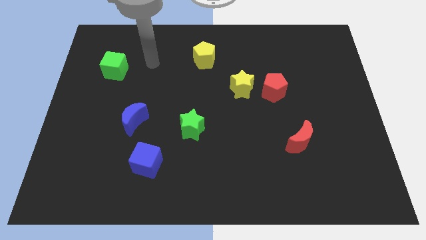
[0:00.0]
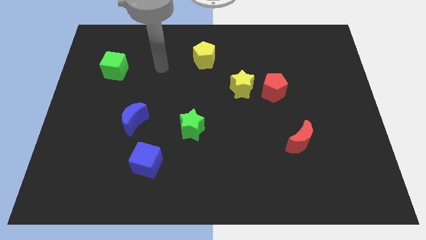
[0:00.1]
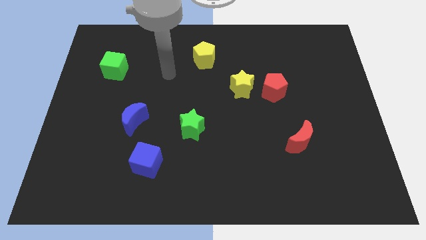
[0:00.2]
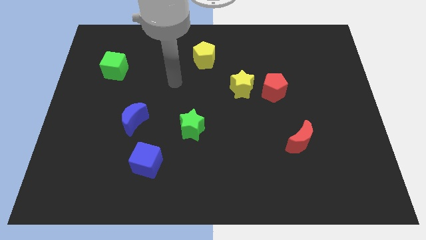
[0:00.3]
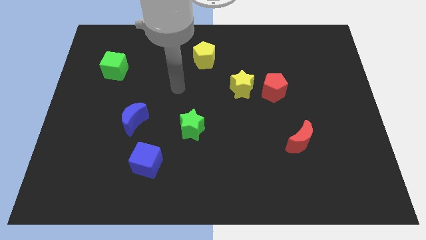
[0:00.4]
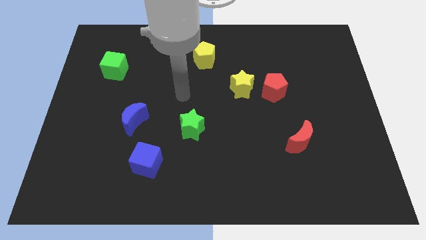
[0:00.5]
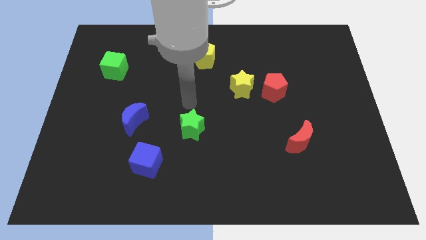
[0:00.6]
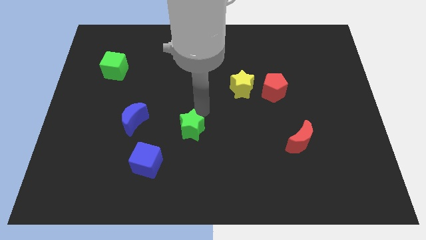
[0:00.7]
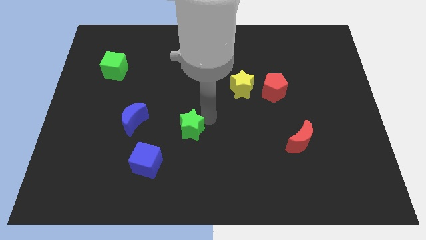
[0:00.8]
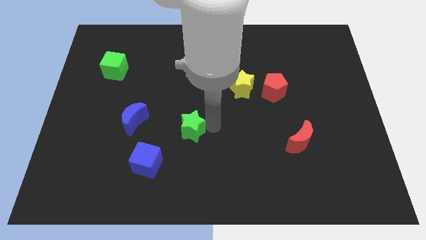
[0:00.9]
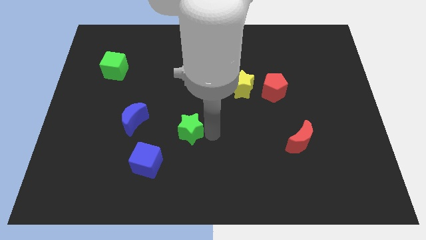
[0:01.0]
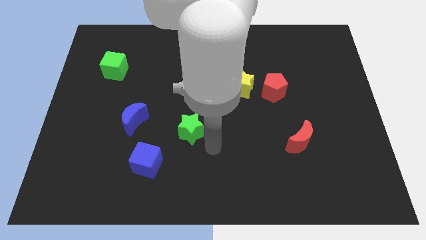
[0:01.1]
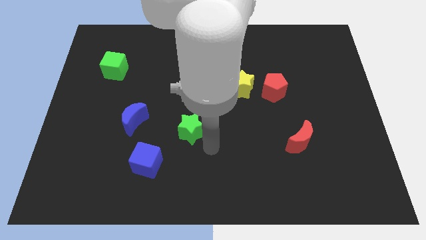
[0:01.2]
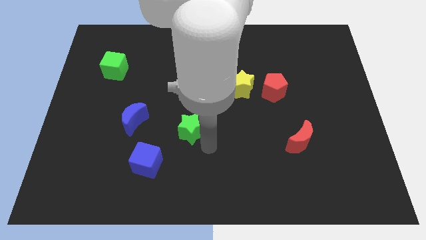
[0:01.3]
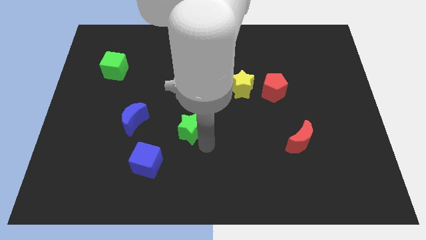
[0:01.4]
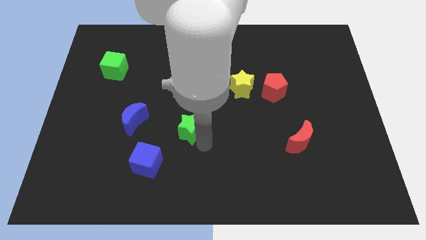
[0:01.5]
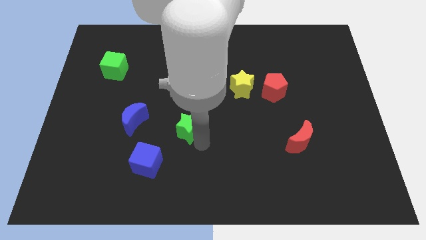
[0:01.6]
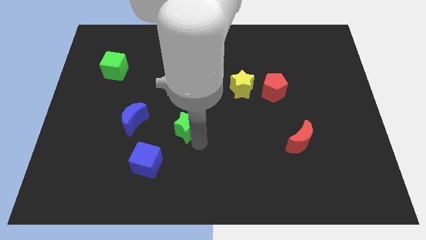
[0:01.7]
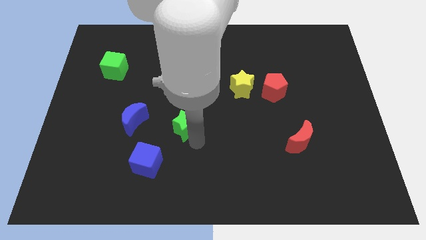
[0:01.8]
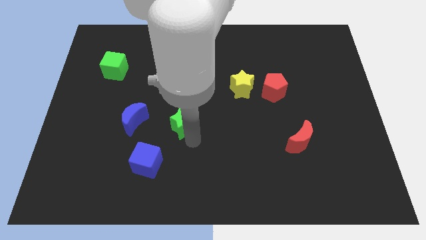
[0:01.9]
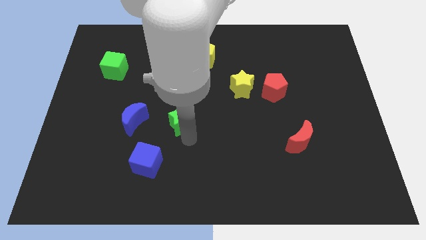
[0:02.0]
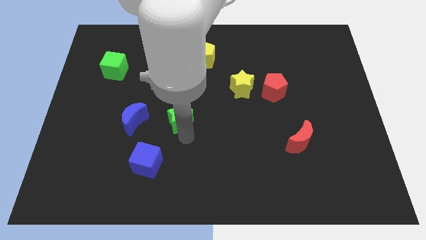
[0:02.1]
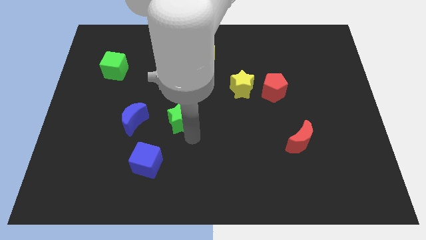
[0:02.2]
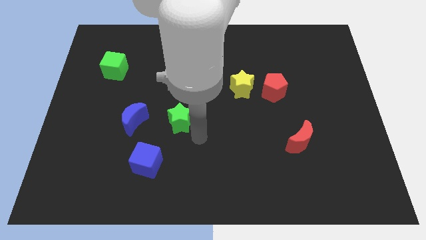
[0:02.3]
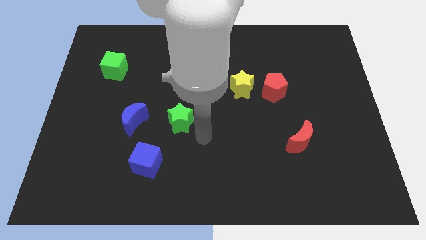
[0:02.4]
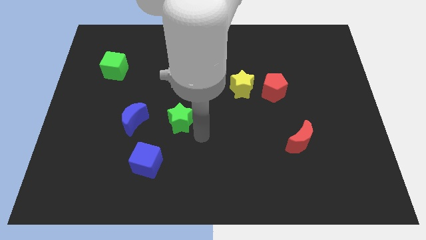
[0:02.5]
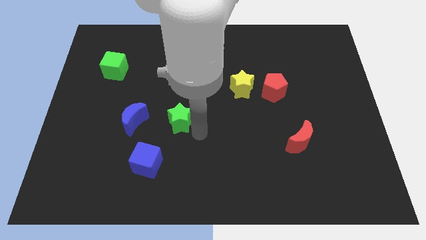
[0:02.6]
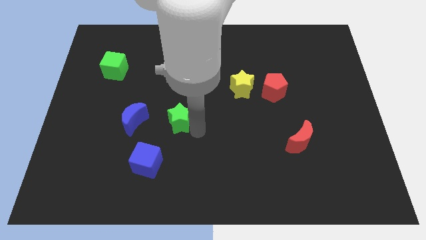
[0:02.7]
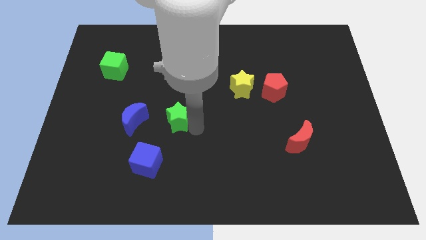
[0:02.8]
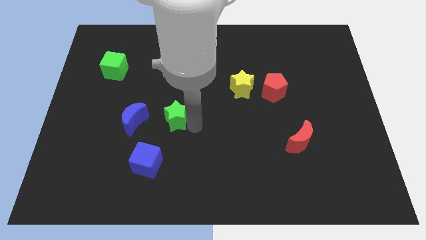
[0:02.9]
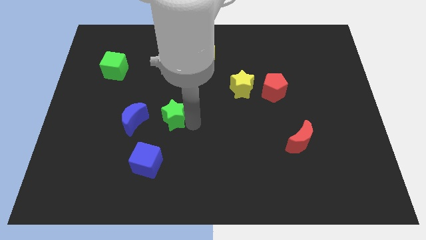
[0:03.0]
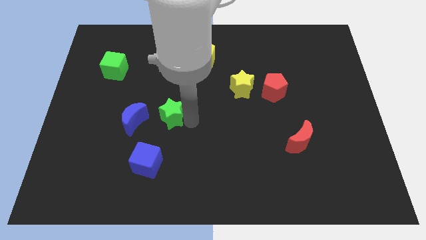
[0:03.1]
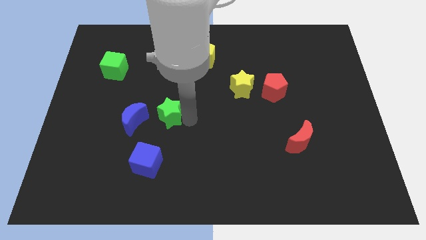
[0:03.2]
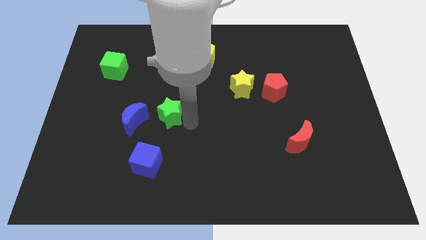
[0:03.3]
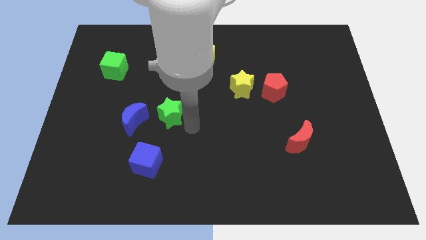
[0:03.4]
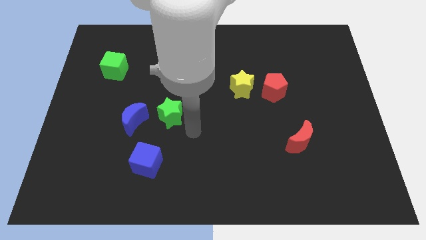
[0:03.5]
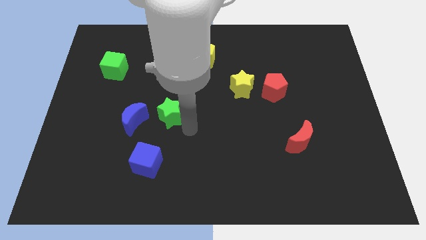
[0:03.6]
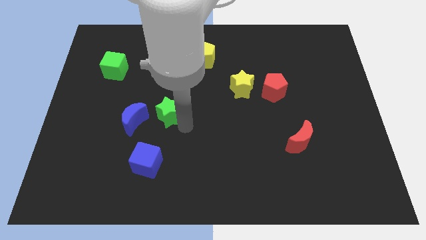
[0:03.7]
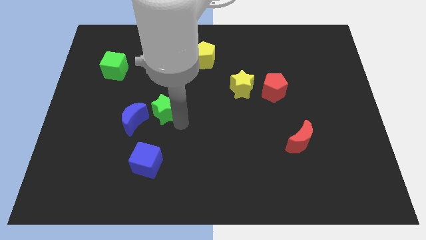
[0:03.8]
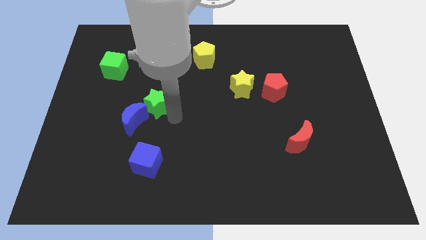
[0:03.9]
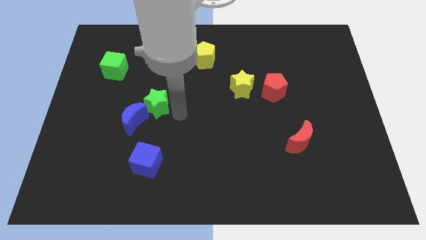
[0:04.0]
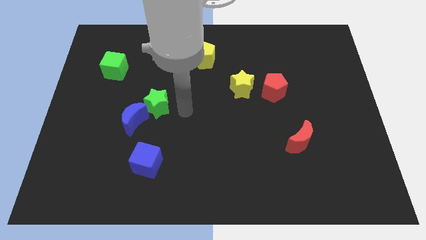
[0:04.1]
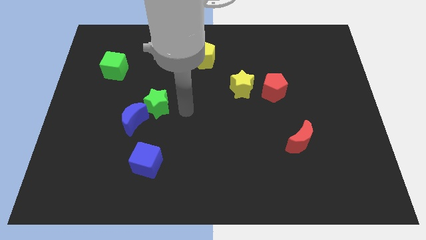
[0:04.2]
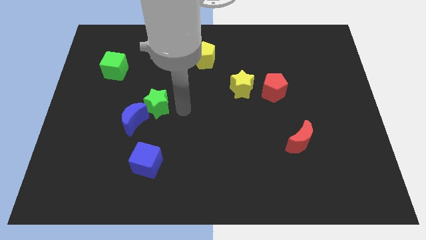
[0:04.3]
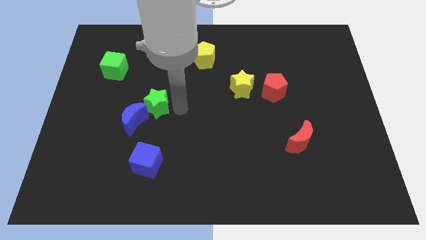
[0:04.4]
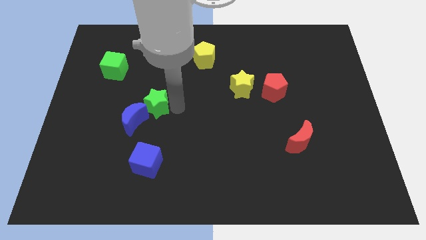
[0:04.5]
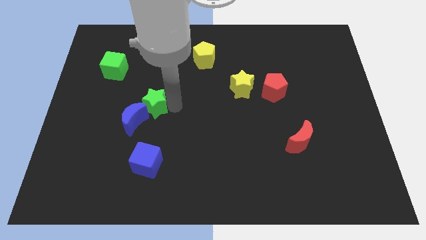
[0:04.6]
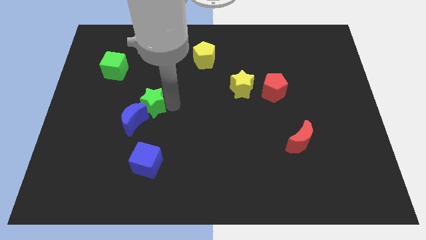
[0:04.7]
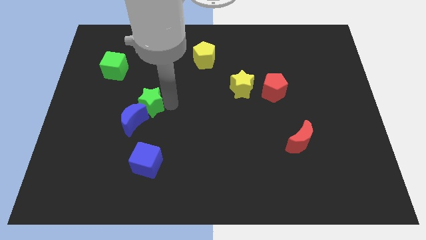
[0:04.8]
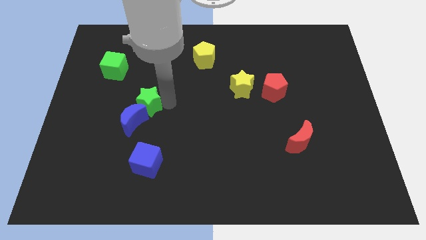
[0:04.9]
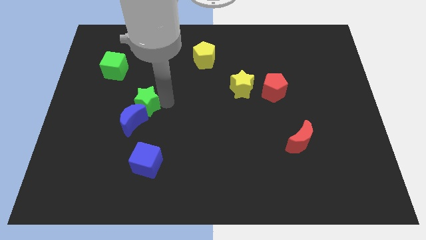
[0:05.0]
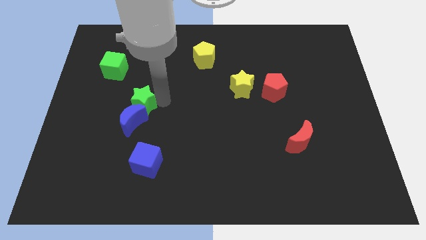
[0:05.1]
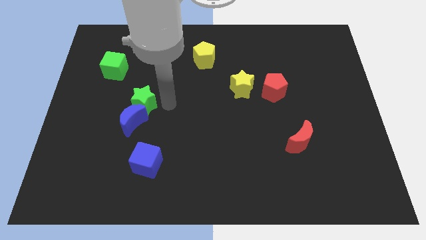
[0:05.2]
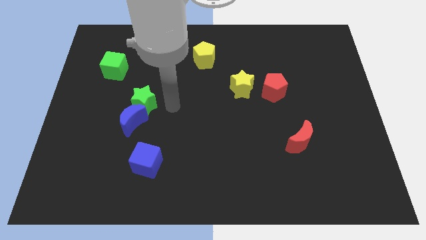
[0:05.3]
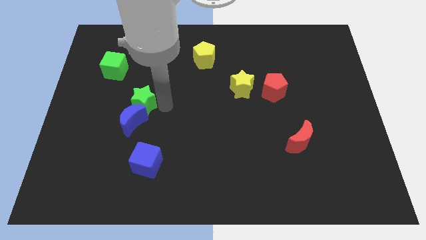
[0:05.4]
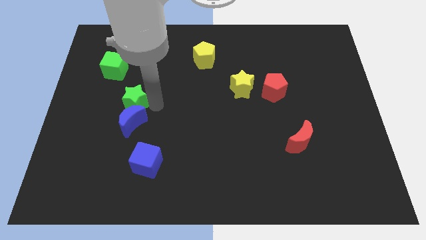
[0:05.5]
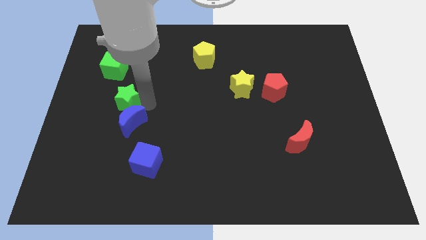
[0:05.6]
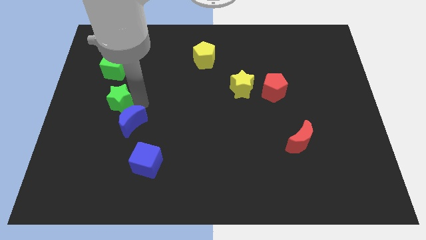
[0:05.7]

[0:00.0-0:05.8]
slide the green star to the bottom side of the green cube

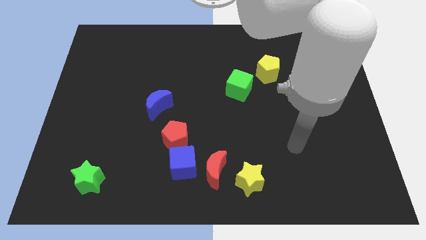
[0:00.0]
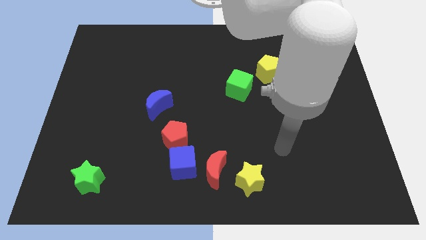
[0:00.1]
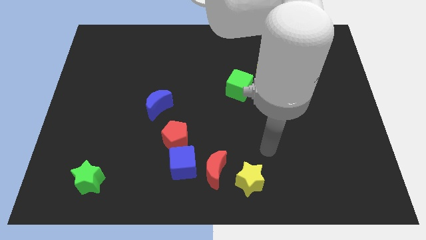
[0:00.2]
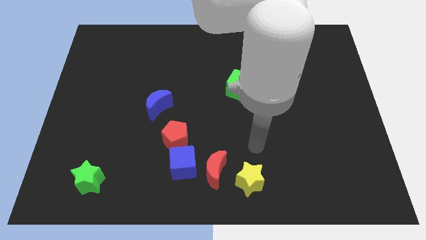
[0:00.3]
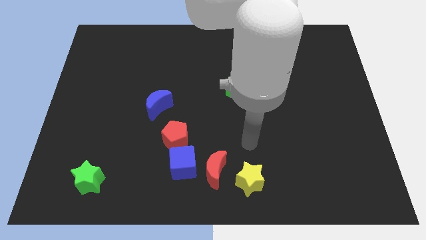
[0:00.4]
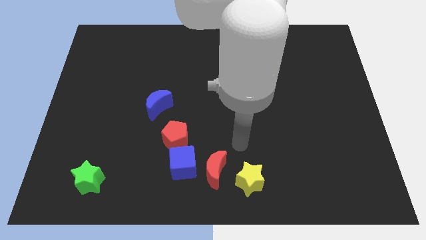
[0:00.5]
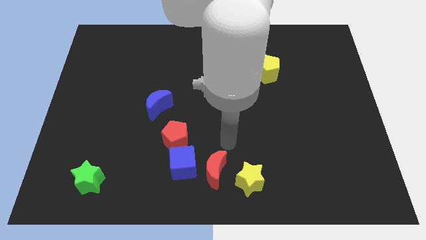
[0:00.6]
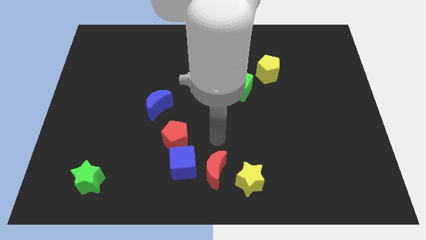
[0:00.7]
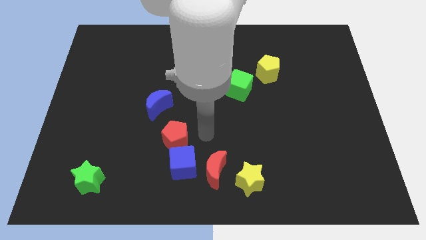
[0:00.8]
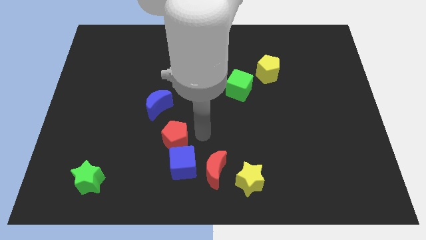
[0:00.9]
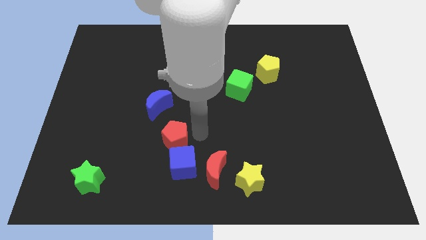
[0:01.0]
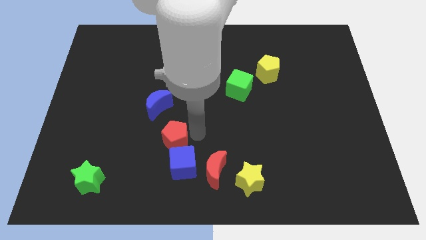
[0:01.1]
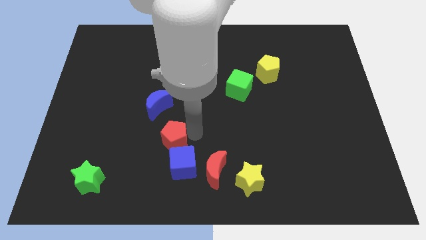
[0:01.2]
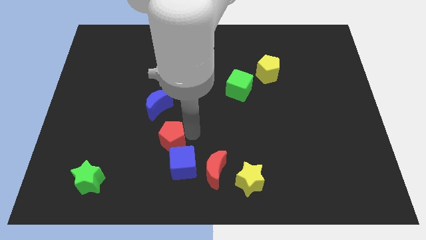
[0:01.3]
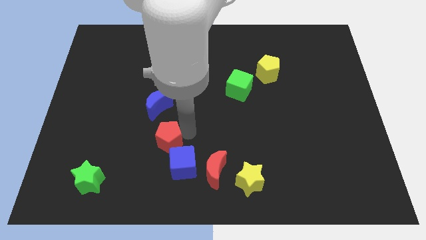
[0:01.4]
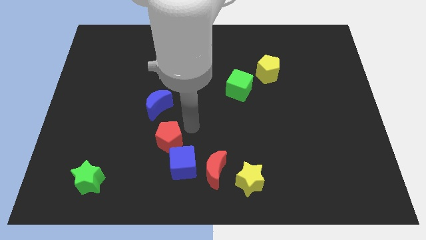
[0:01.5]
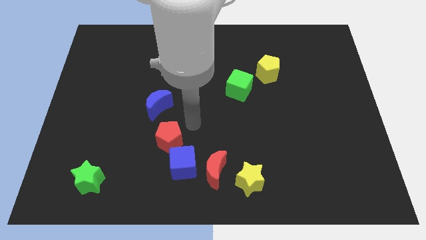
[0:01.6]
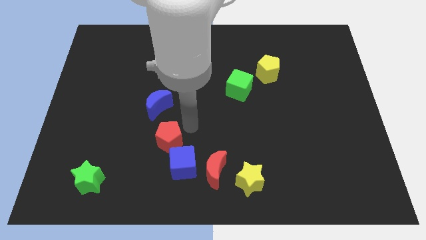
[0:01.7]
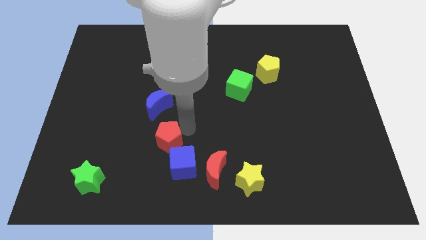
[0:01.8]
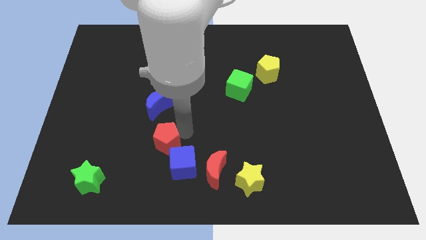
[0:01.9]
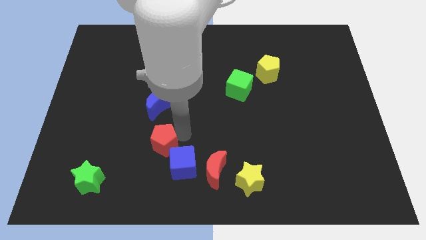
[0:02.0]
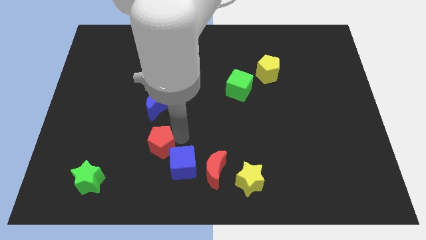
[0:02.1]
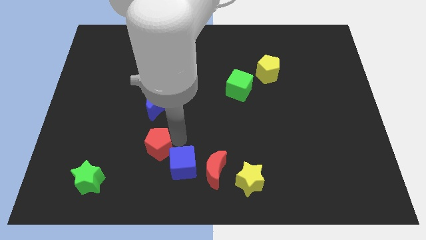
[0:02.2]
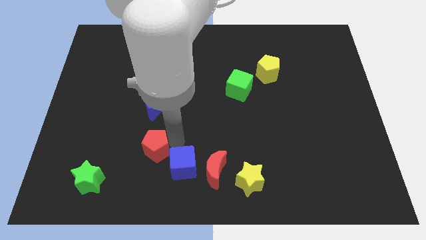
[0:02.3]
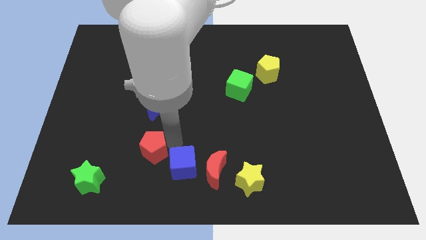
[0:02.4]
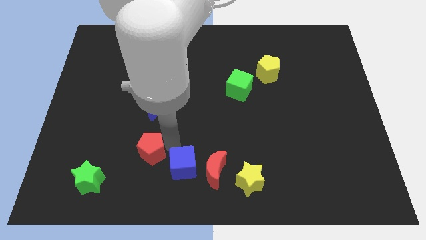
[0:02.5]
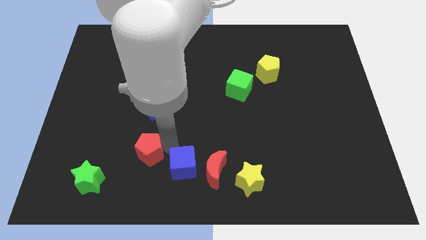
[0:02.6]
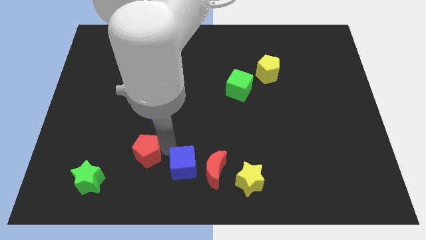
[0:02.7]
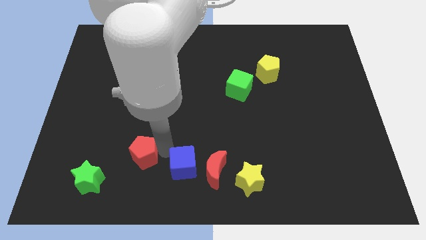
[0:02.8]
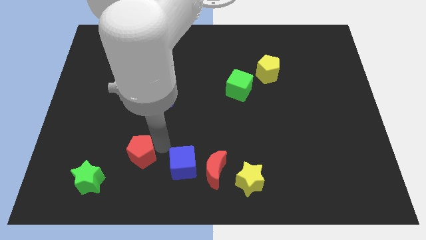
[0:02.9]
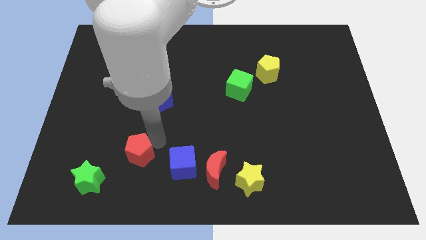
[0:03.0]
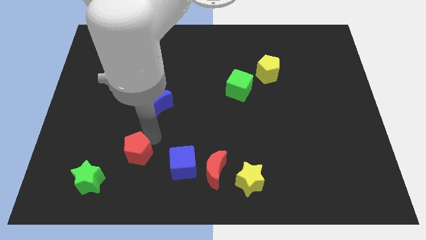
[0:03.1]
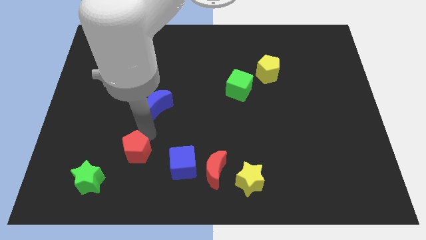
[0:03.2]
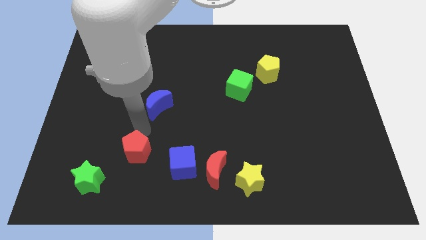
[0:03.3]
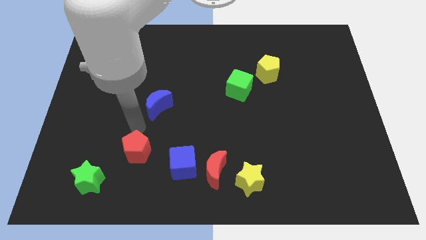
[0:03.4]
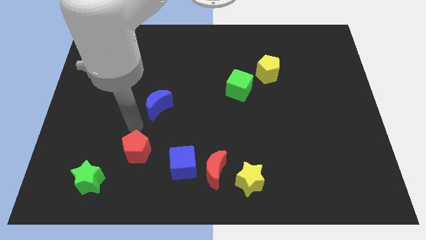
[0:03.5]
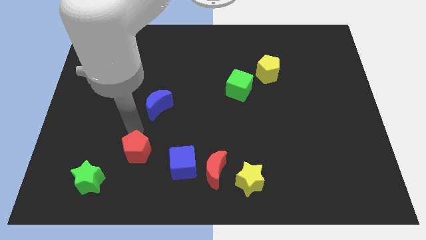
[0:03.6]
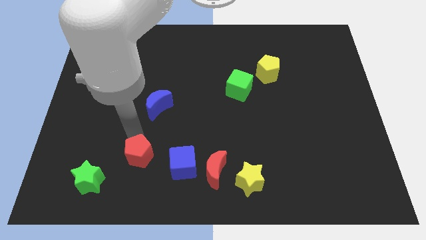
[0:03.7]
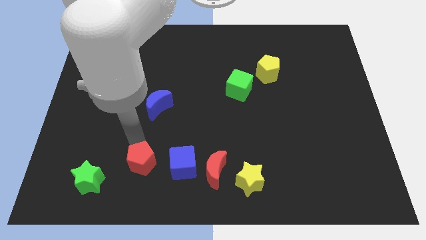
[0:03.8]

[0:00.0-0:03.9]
slide the red pentagon right of the green star
